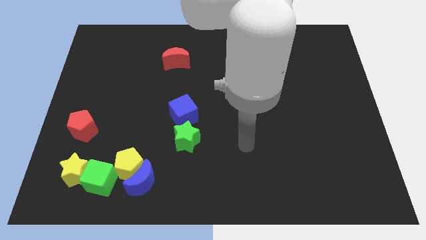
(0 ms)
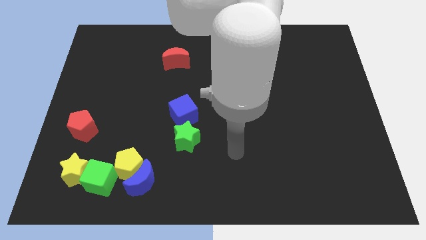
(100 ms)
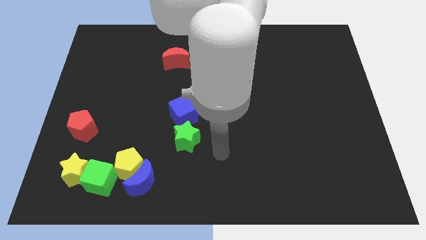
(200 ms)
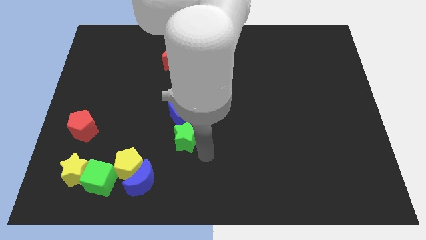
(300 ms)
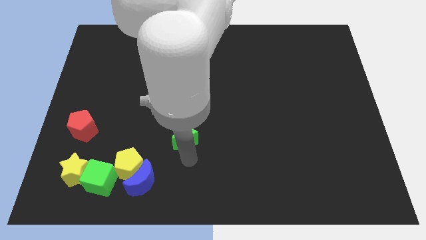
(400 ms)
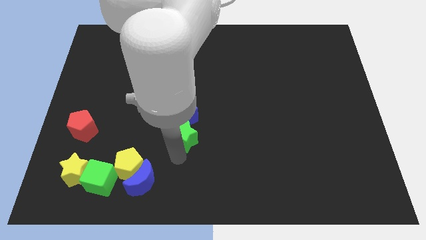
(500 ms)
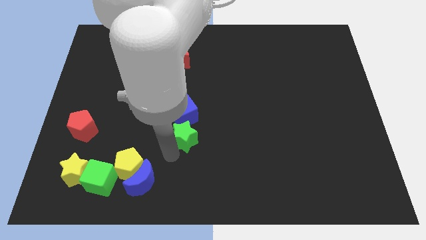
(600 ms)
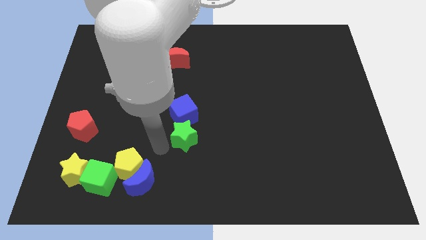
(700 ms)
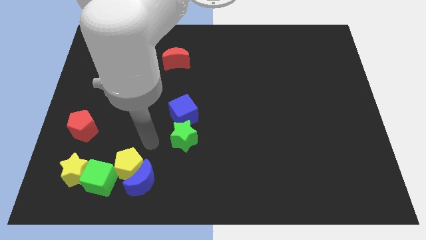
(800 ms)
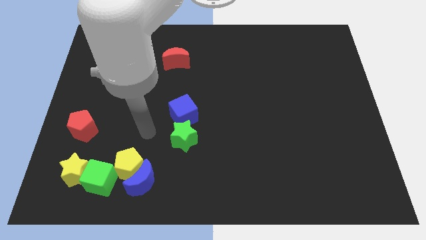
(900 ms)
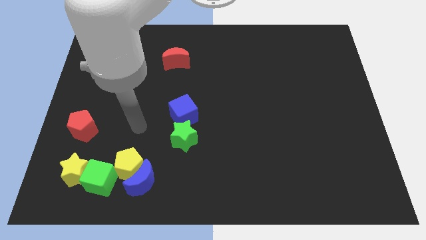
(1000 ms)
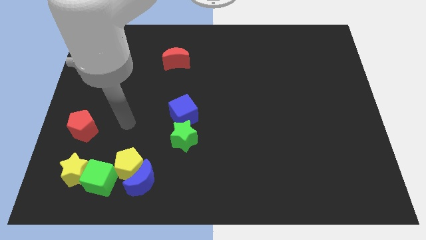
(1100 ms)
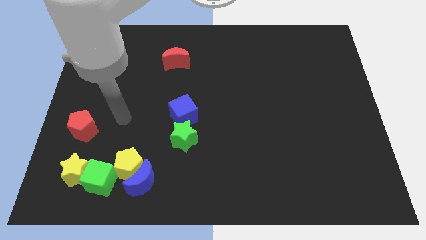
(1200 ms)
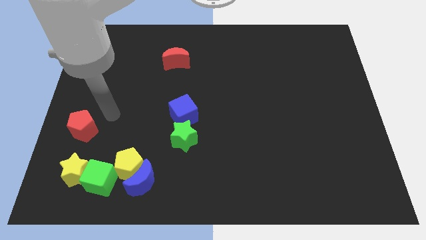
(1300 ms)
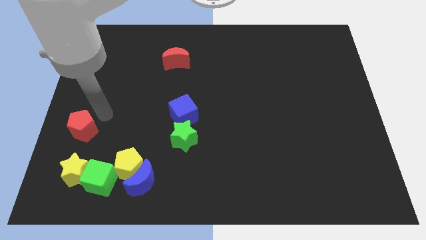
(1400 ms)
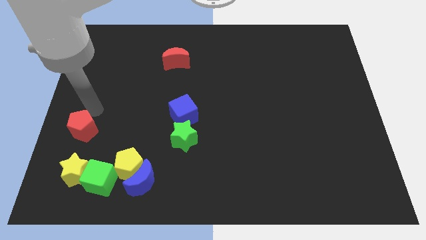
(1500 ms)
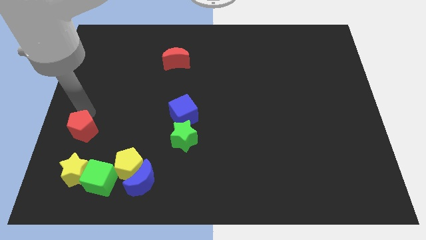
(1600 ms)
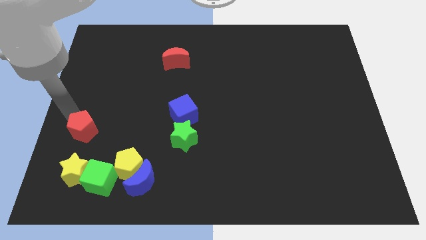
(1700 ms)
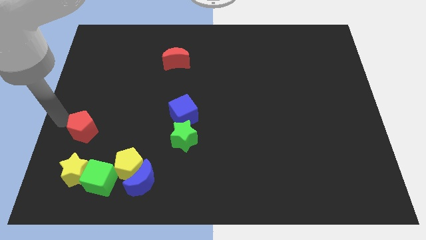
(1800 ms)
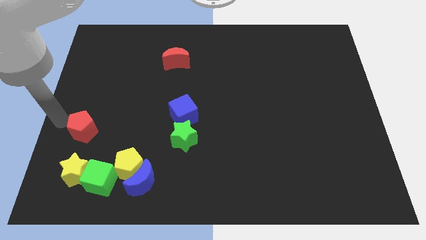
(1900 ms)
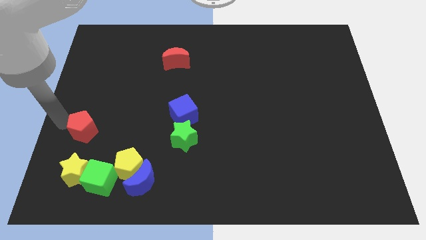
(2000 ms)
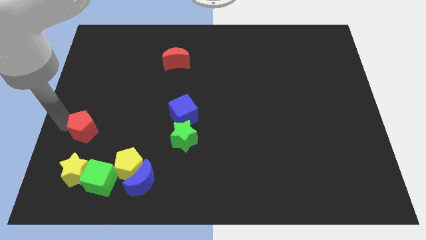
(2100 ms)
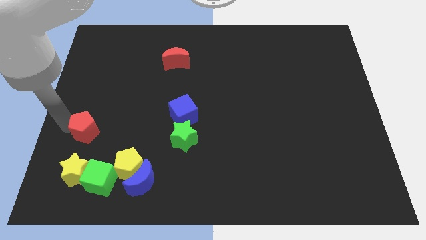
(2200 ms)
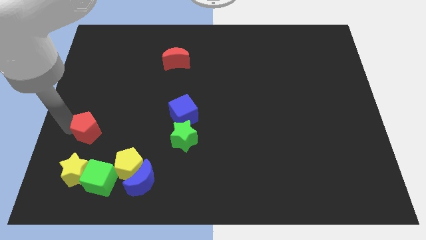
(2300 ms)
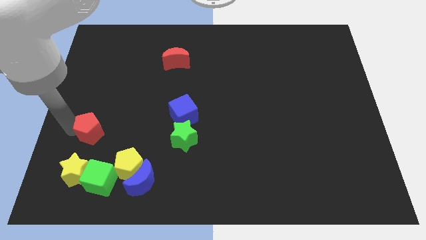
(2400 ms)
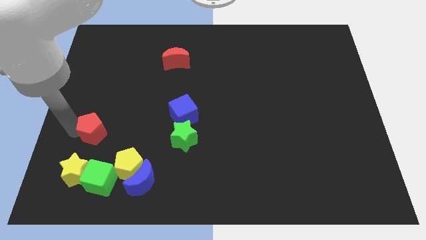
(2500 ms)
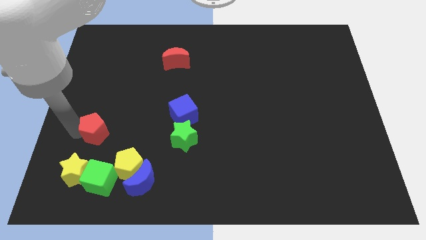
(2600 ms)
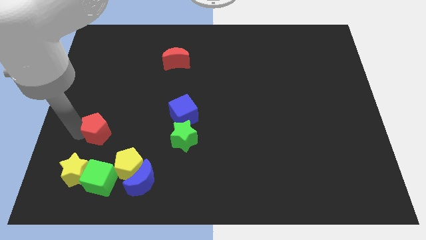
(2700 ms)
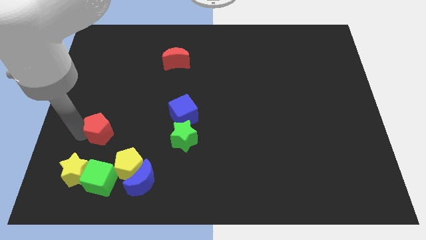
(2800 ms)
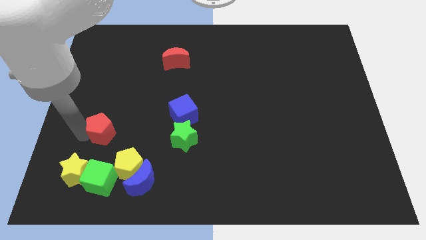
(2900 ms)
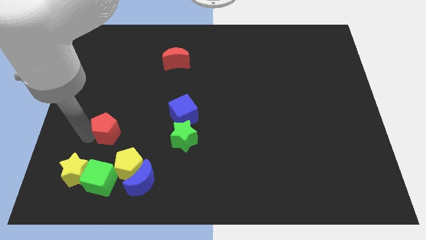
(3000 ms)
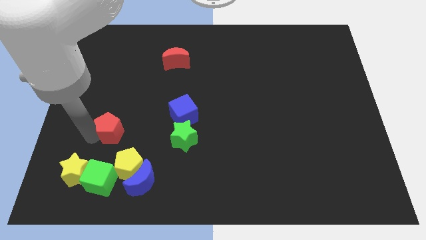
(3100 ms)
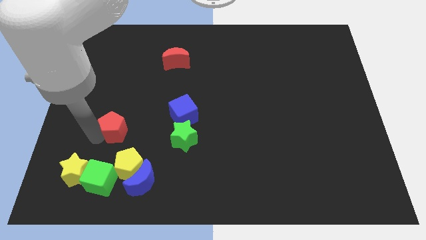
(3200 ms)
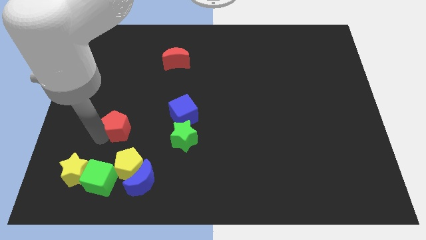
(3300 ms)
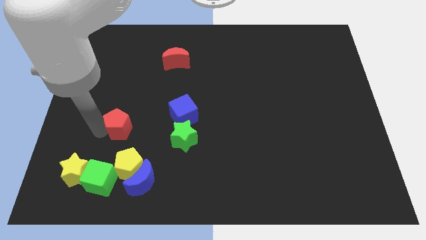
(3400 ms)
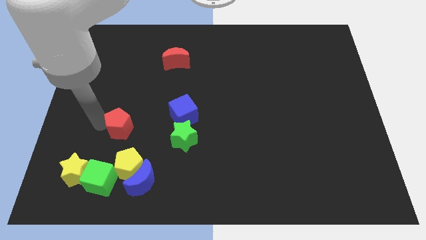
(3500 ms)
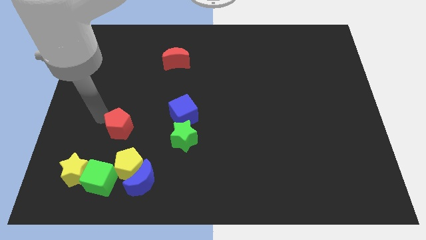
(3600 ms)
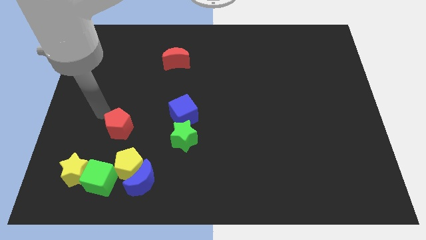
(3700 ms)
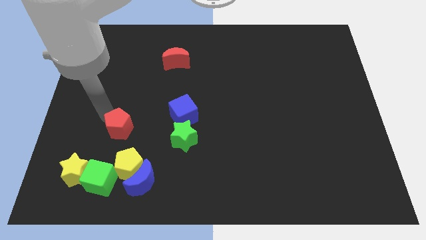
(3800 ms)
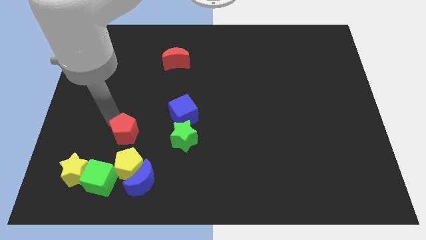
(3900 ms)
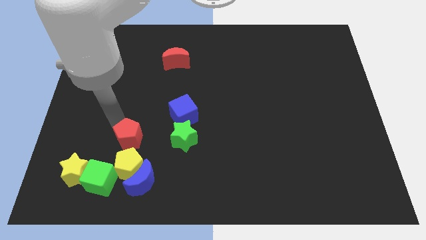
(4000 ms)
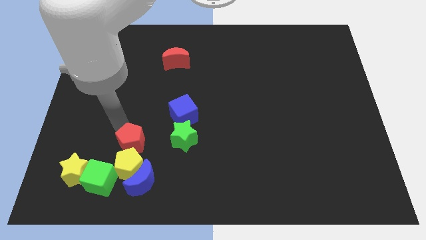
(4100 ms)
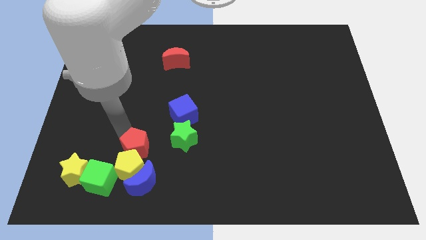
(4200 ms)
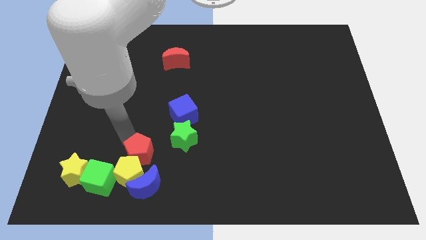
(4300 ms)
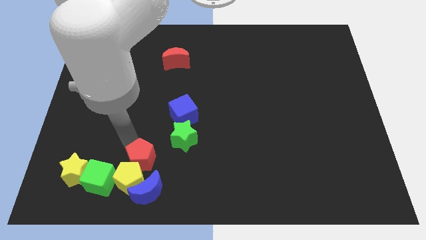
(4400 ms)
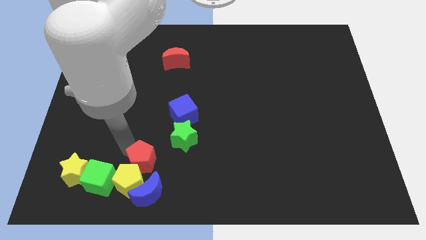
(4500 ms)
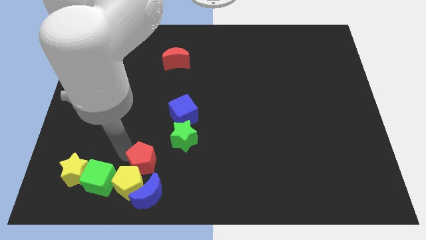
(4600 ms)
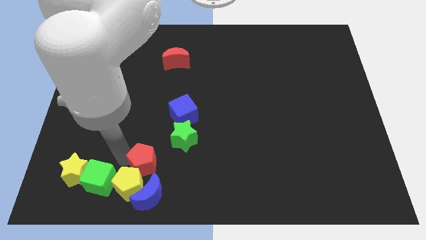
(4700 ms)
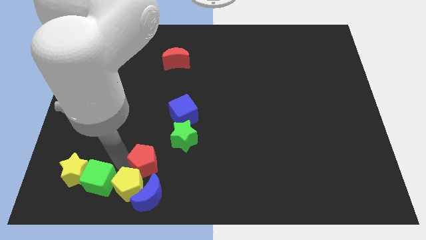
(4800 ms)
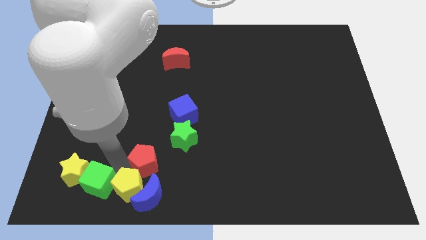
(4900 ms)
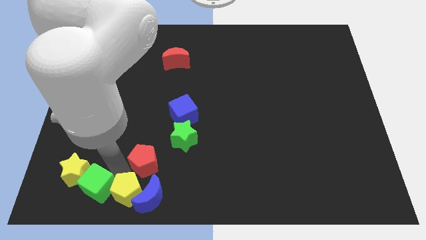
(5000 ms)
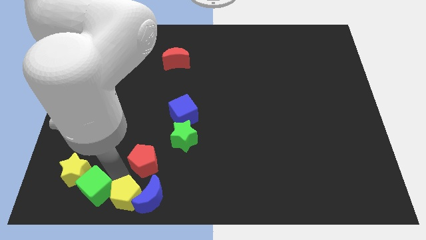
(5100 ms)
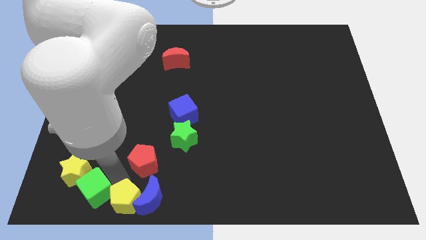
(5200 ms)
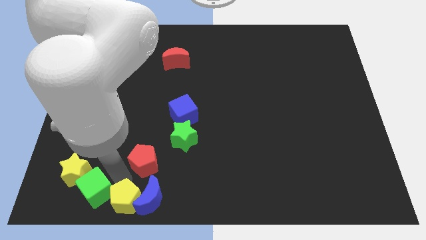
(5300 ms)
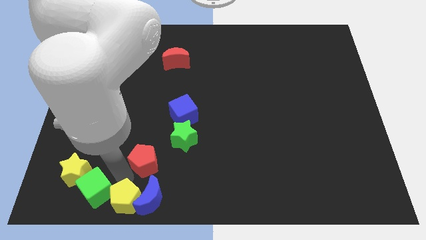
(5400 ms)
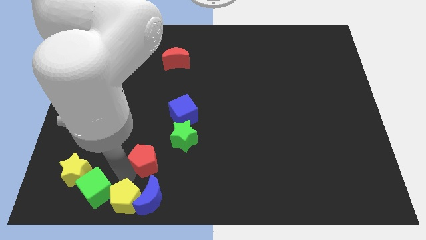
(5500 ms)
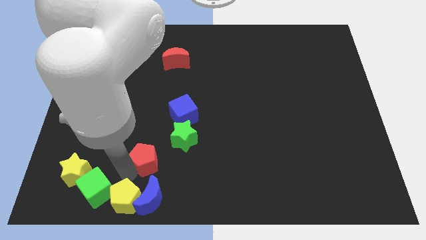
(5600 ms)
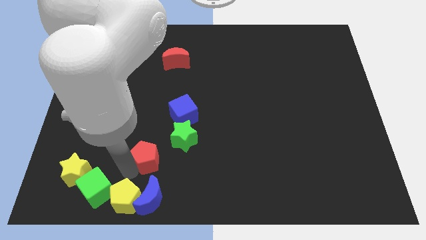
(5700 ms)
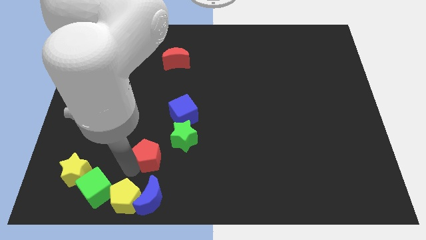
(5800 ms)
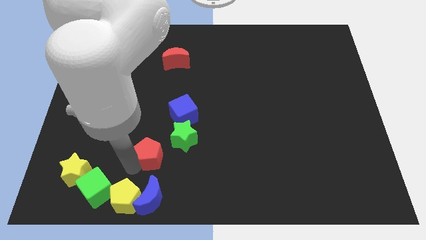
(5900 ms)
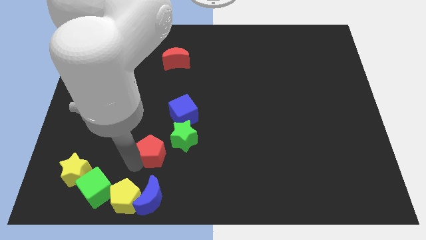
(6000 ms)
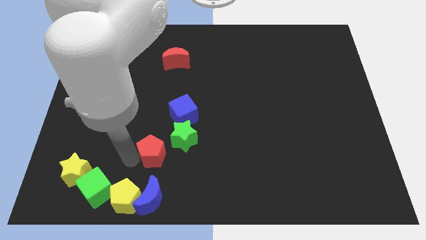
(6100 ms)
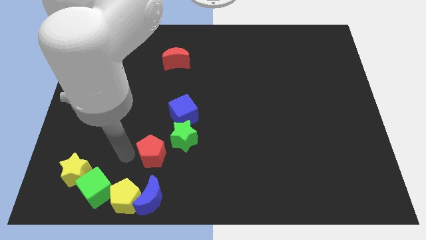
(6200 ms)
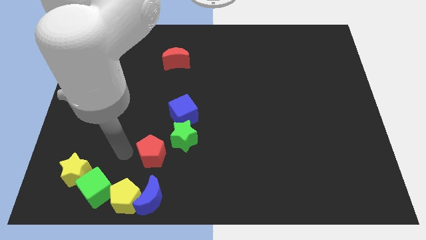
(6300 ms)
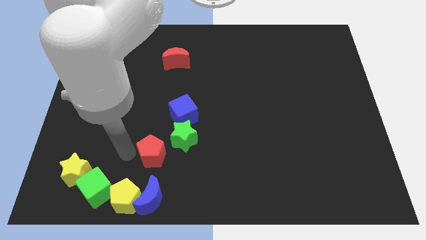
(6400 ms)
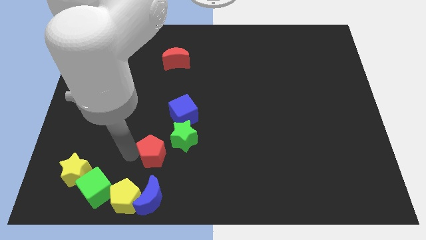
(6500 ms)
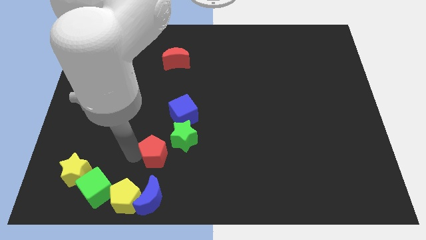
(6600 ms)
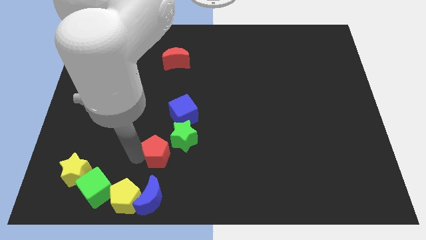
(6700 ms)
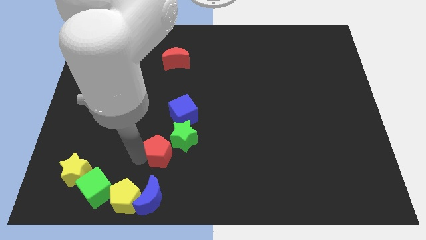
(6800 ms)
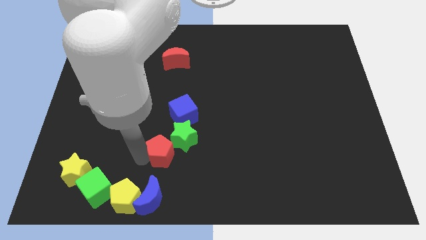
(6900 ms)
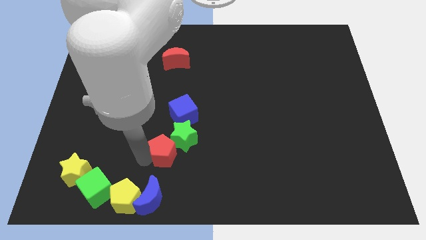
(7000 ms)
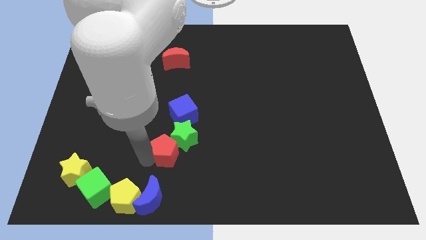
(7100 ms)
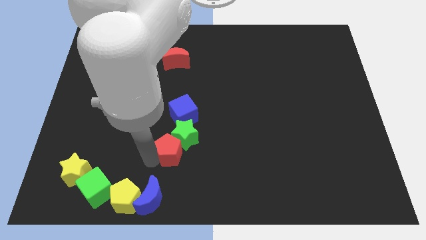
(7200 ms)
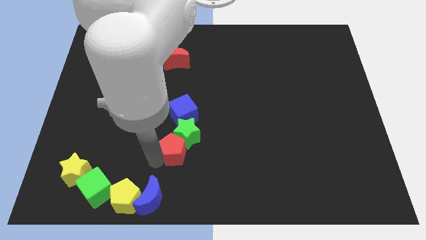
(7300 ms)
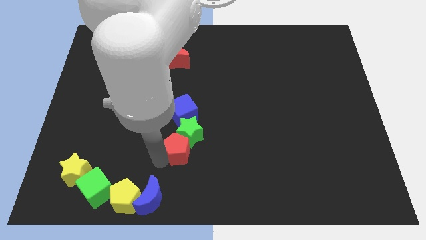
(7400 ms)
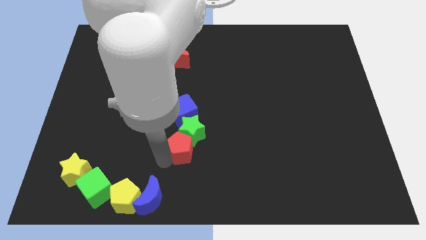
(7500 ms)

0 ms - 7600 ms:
move the red pentagon to the bottom right side of the green star
